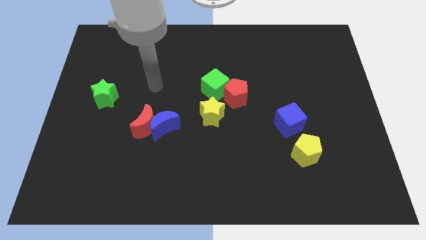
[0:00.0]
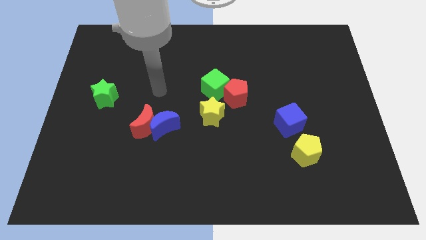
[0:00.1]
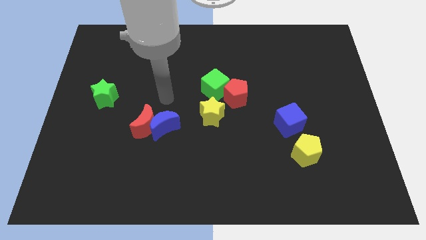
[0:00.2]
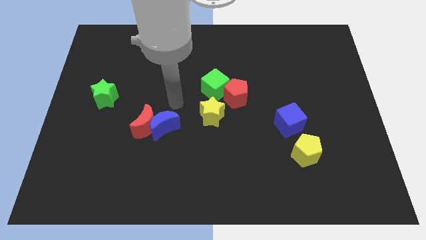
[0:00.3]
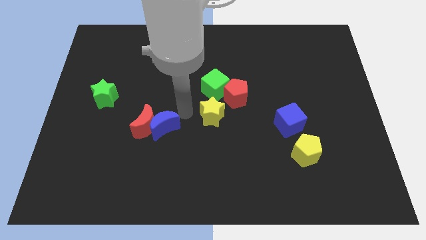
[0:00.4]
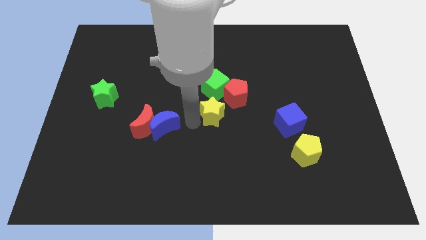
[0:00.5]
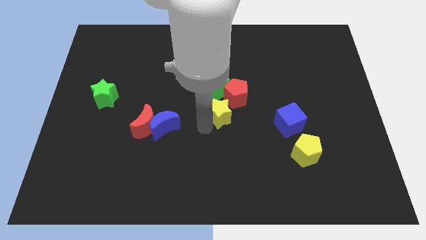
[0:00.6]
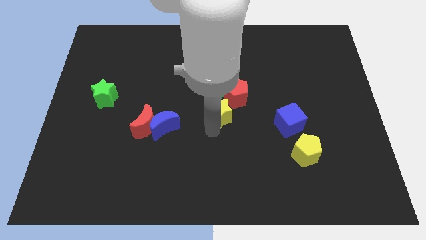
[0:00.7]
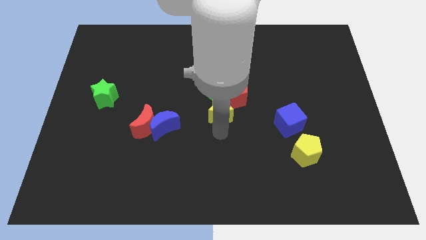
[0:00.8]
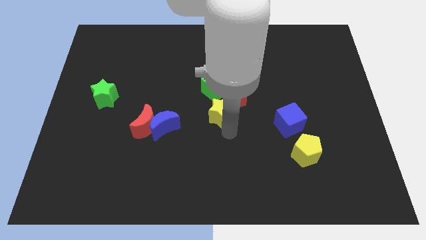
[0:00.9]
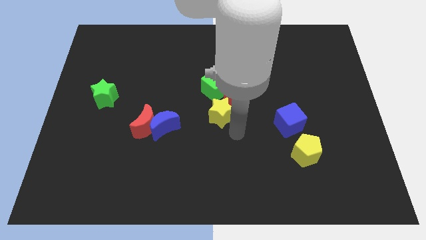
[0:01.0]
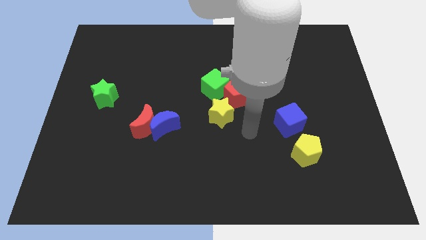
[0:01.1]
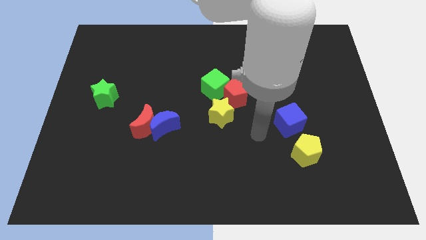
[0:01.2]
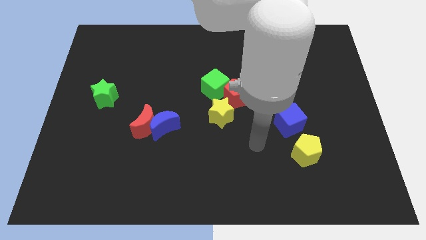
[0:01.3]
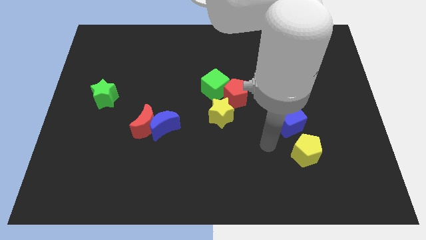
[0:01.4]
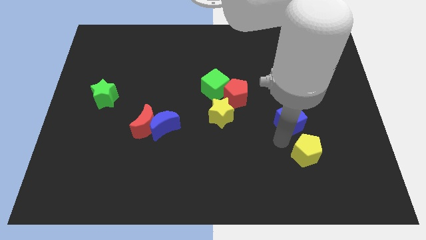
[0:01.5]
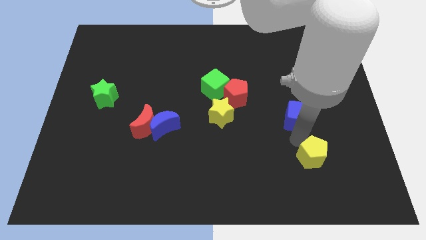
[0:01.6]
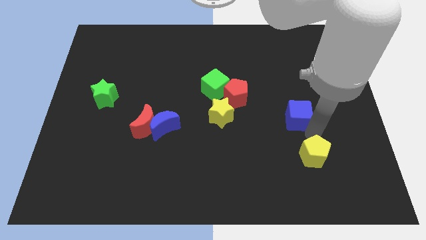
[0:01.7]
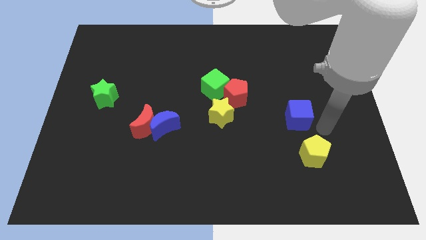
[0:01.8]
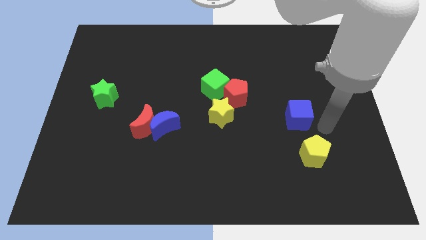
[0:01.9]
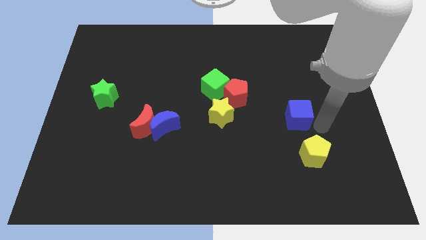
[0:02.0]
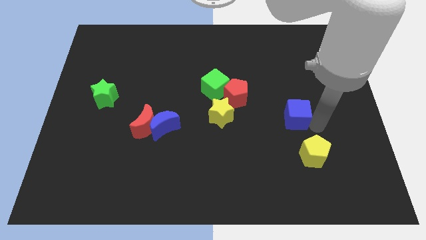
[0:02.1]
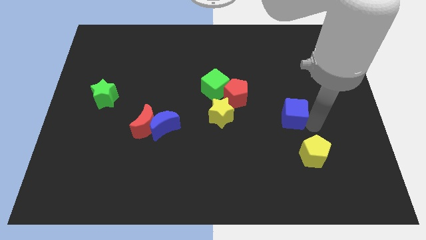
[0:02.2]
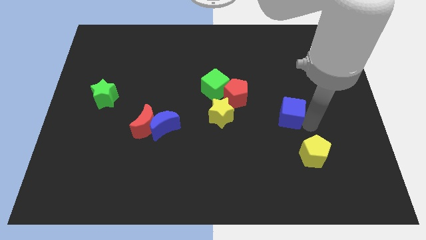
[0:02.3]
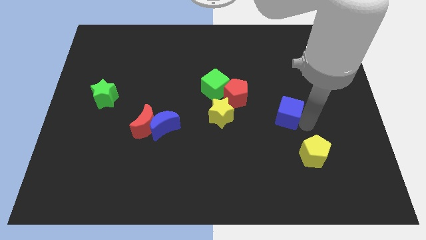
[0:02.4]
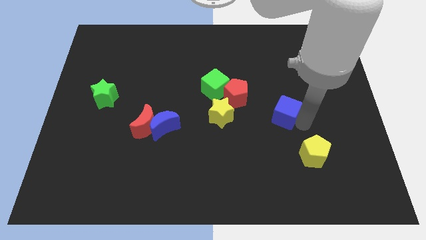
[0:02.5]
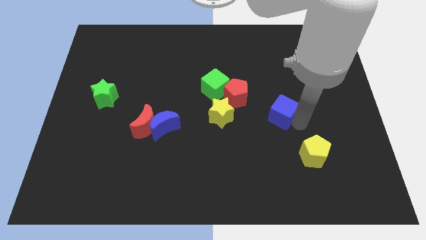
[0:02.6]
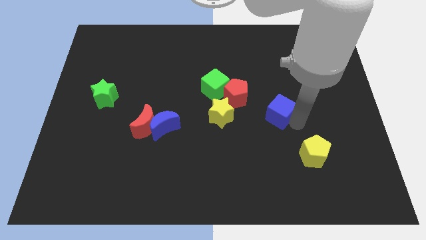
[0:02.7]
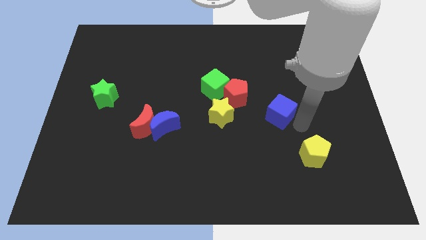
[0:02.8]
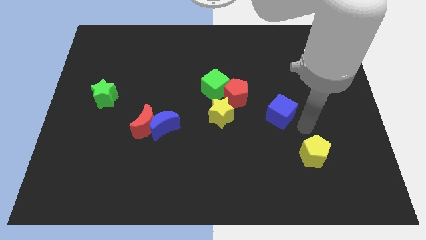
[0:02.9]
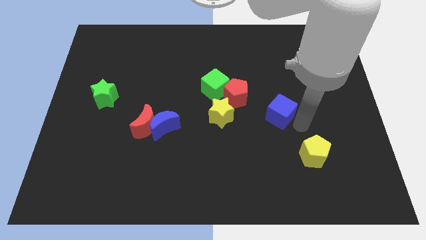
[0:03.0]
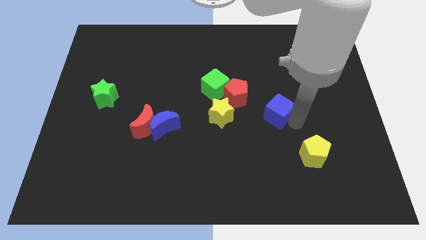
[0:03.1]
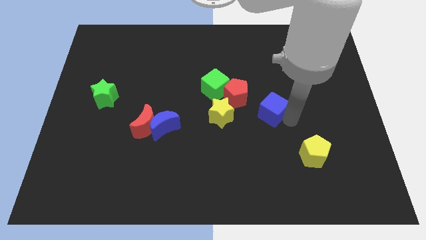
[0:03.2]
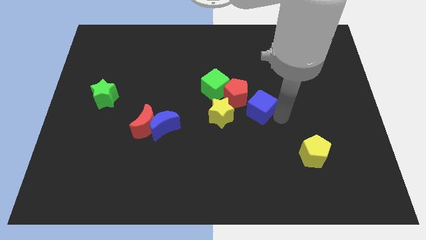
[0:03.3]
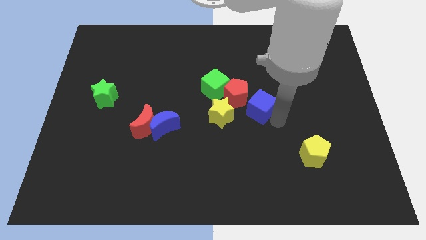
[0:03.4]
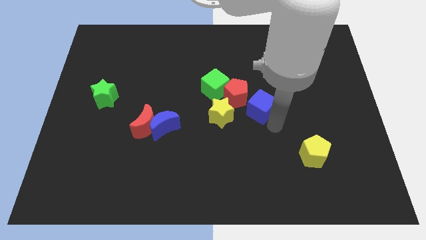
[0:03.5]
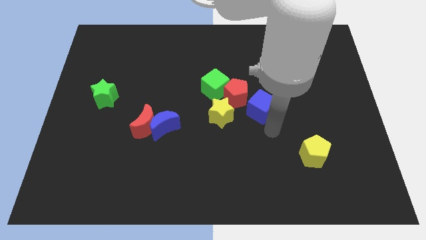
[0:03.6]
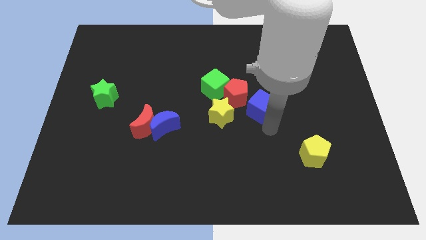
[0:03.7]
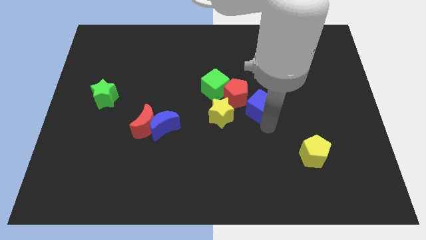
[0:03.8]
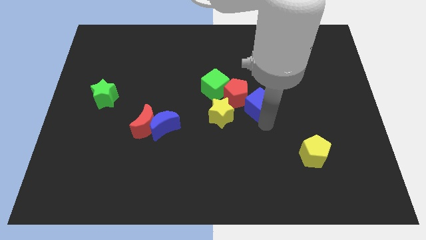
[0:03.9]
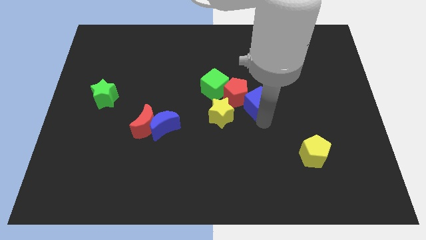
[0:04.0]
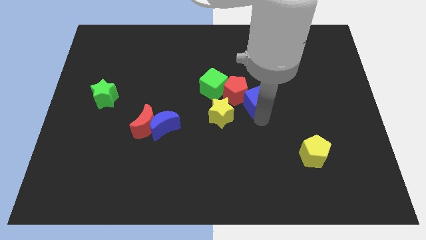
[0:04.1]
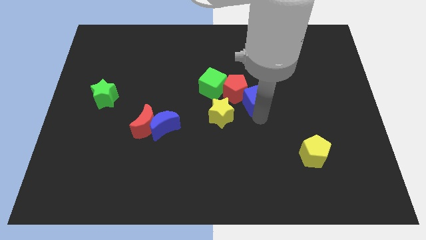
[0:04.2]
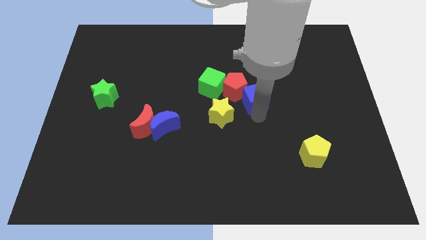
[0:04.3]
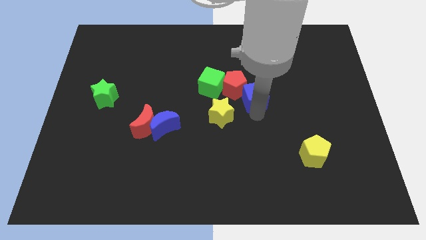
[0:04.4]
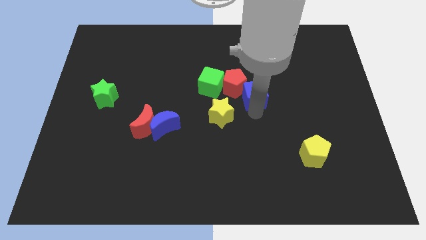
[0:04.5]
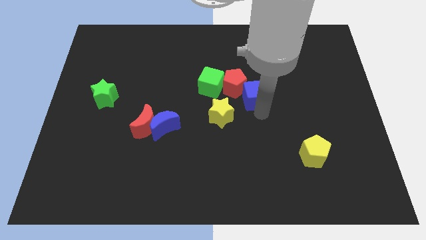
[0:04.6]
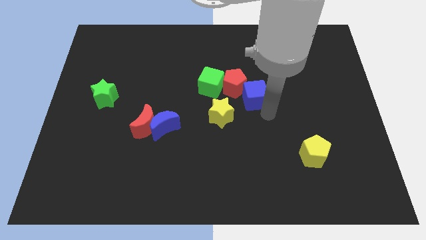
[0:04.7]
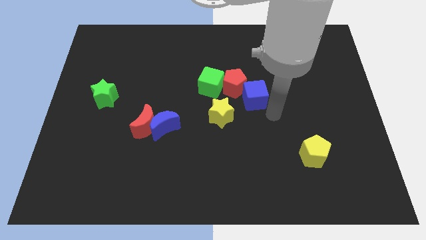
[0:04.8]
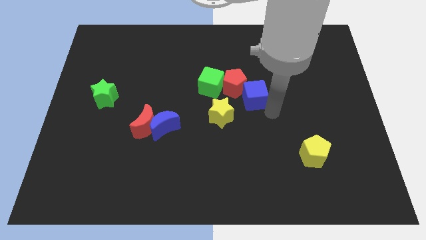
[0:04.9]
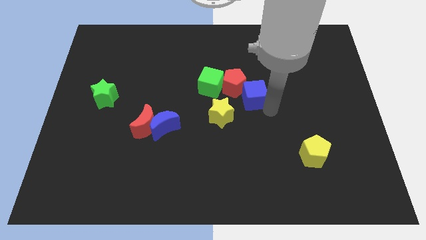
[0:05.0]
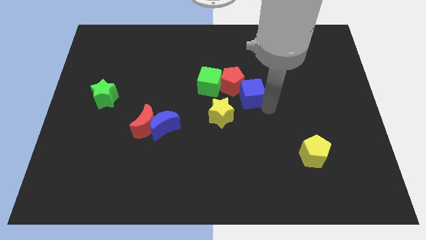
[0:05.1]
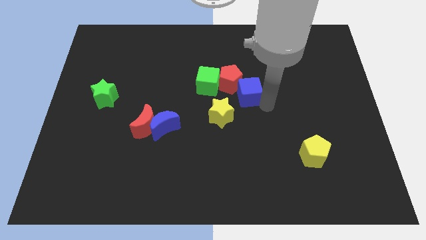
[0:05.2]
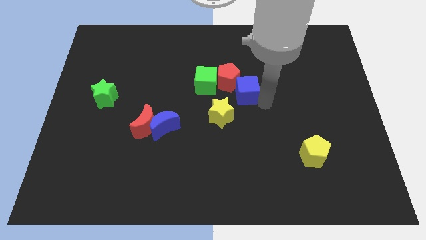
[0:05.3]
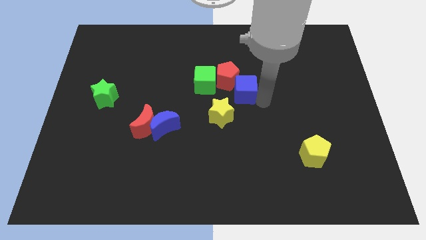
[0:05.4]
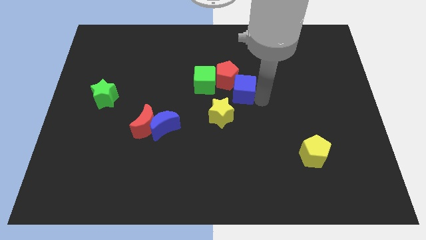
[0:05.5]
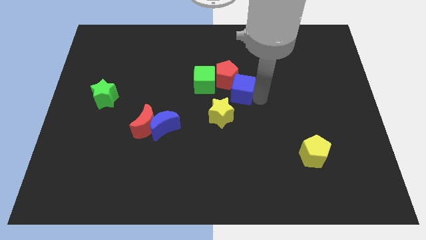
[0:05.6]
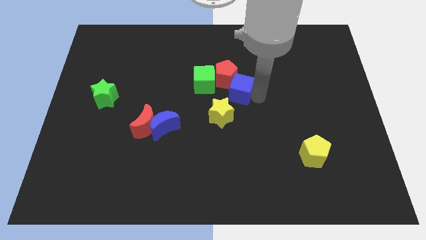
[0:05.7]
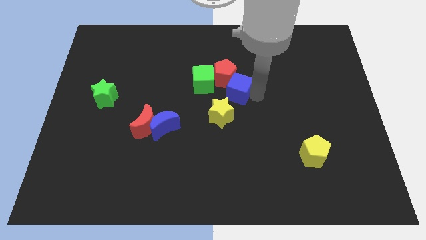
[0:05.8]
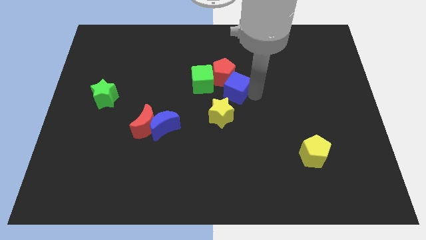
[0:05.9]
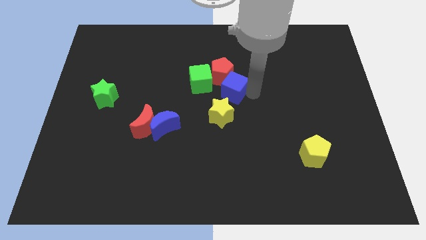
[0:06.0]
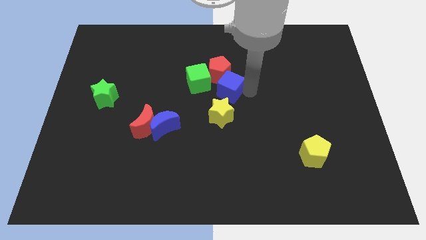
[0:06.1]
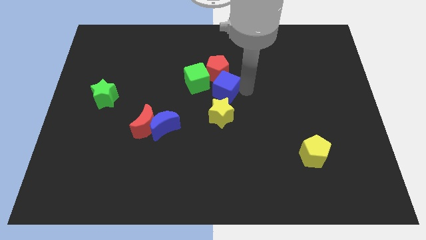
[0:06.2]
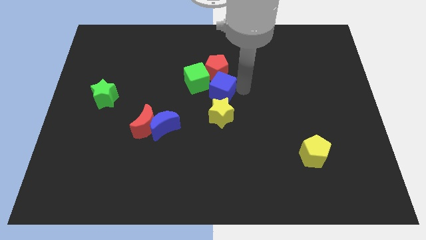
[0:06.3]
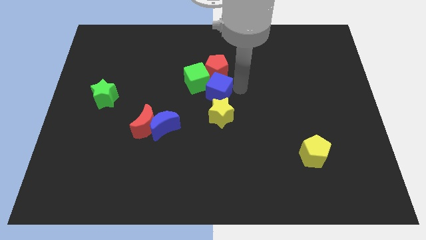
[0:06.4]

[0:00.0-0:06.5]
move the blue cube to the green cube

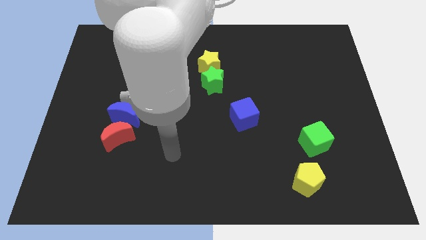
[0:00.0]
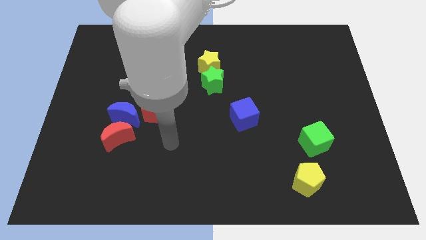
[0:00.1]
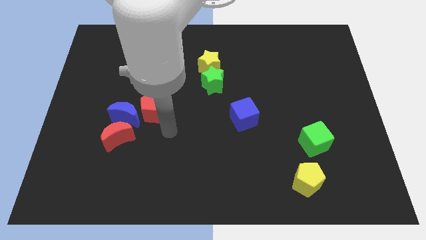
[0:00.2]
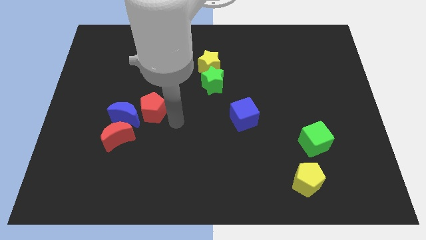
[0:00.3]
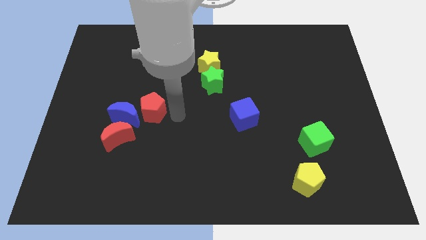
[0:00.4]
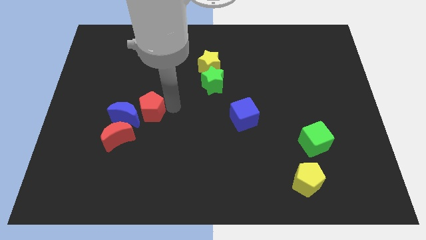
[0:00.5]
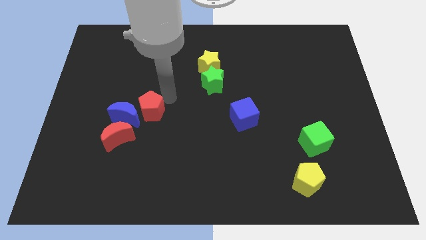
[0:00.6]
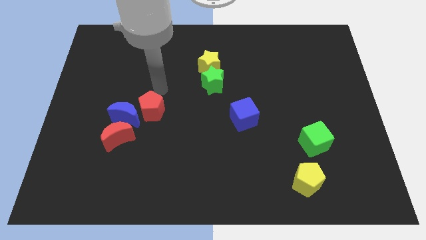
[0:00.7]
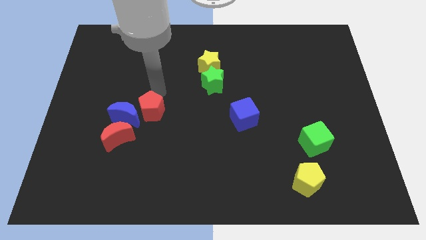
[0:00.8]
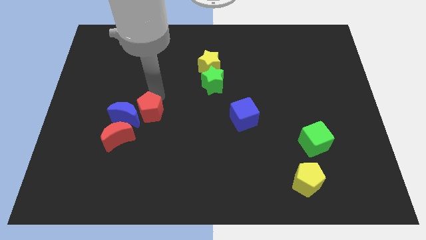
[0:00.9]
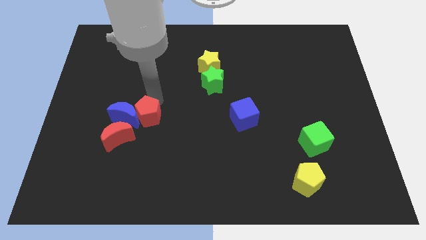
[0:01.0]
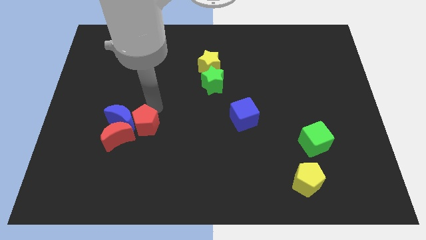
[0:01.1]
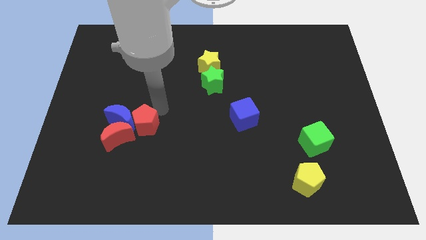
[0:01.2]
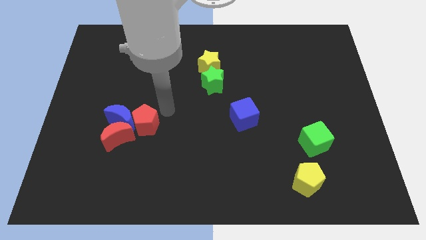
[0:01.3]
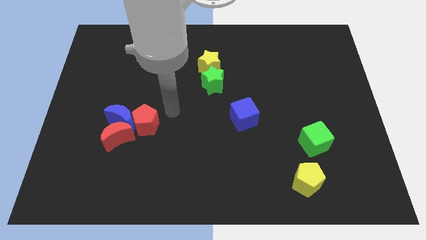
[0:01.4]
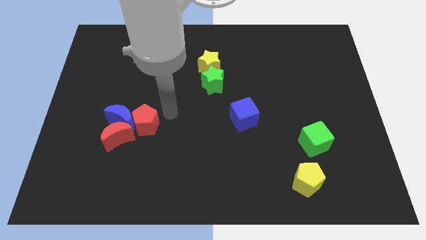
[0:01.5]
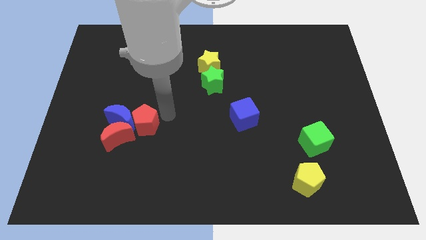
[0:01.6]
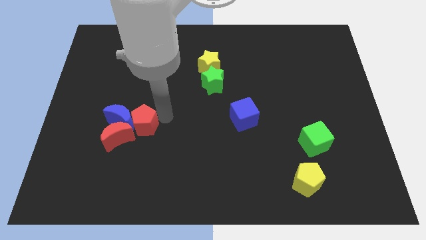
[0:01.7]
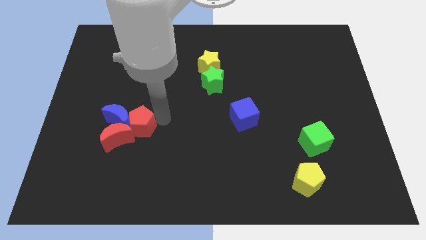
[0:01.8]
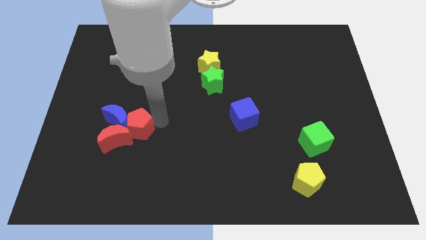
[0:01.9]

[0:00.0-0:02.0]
put the red pentagon towards the red moon
